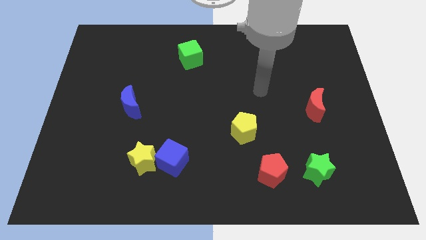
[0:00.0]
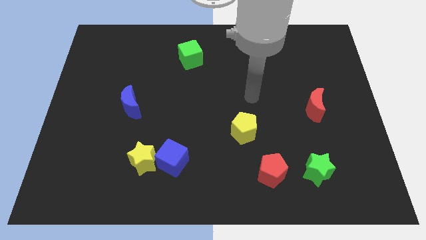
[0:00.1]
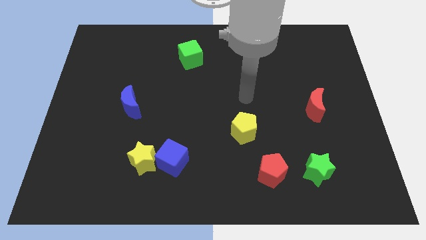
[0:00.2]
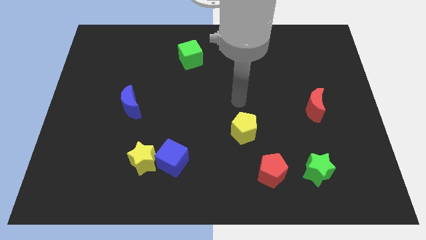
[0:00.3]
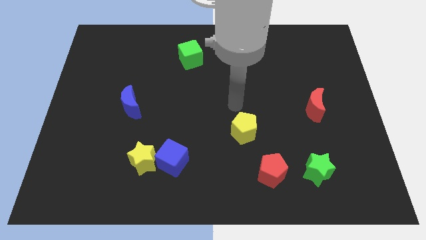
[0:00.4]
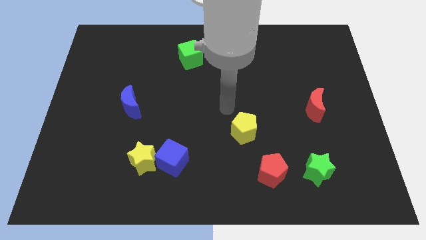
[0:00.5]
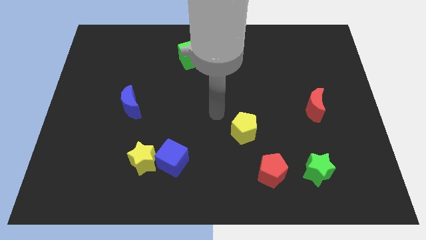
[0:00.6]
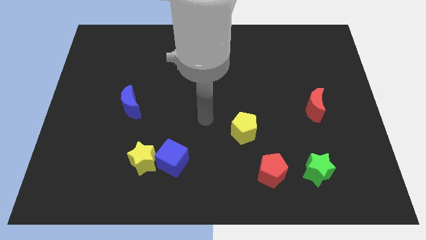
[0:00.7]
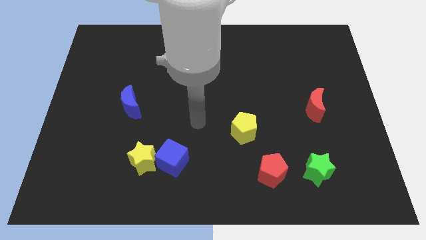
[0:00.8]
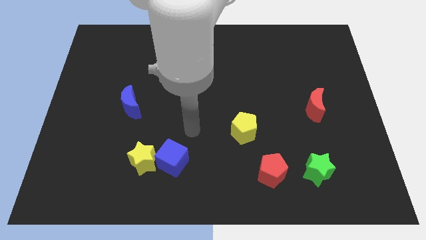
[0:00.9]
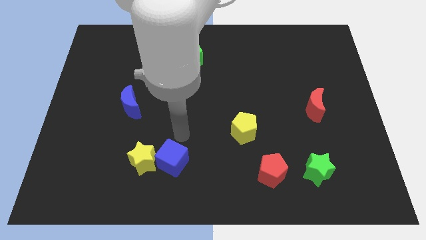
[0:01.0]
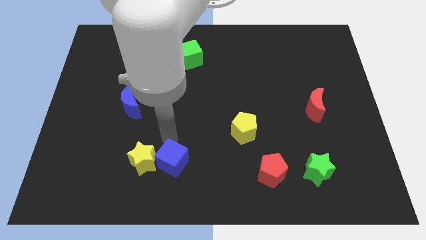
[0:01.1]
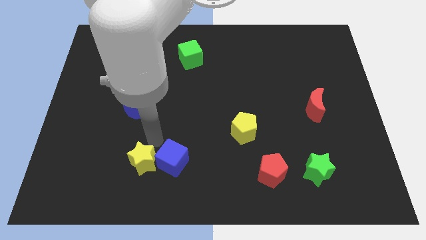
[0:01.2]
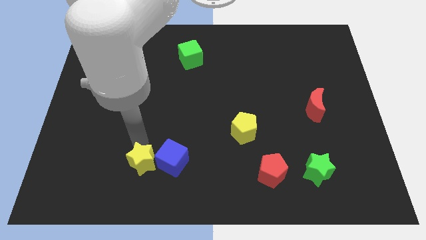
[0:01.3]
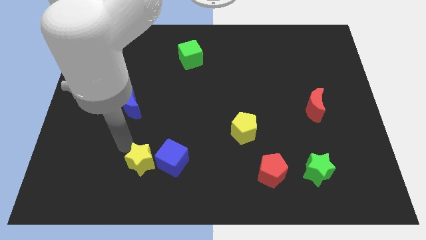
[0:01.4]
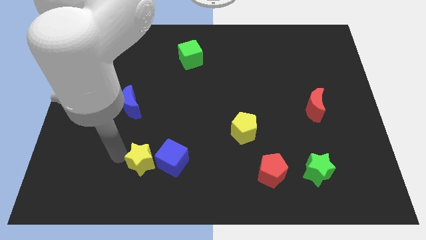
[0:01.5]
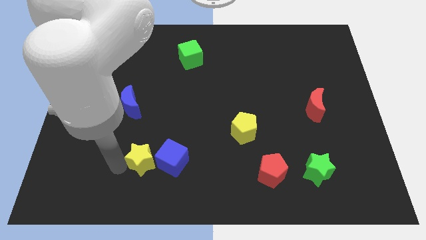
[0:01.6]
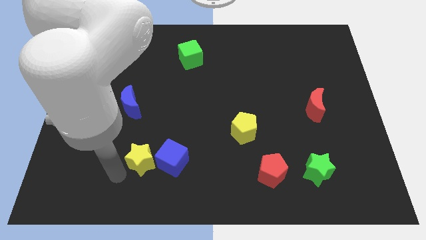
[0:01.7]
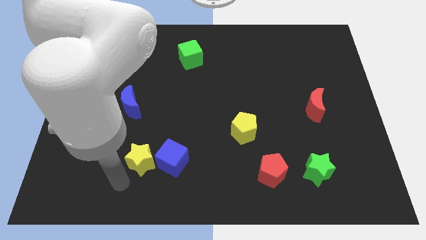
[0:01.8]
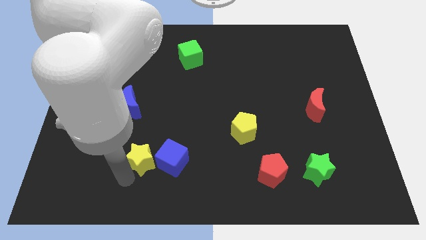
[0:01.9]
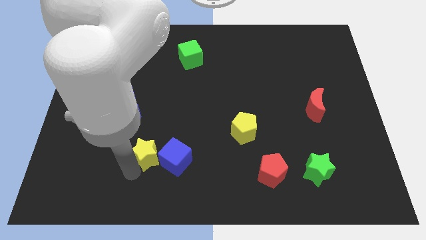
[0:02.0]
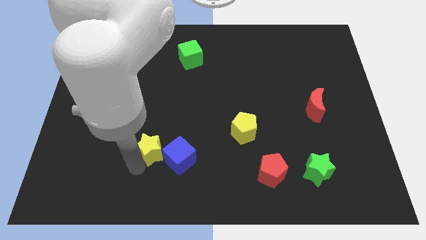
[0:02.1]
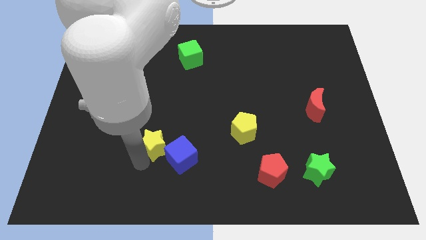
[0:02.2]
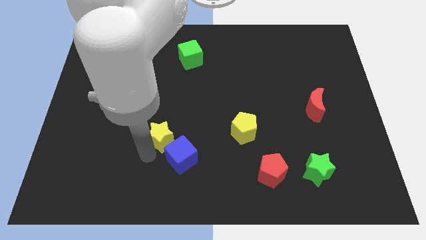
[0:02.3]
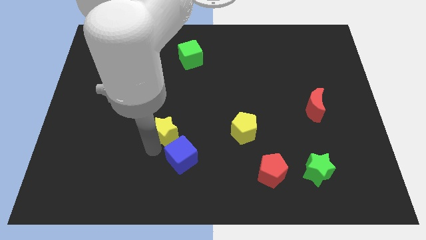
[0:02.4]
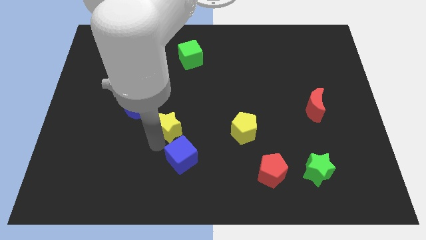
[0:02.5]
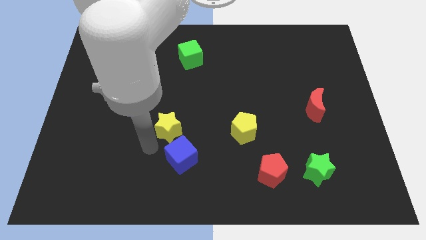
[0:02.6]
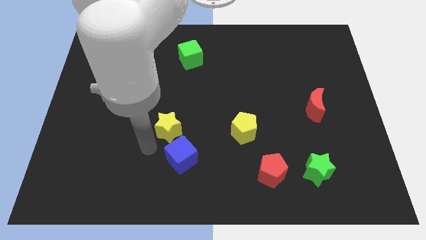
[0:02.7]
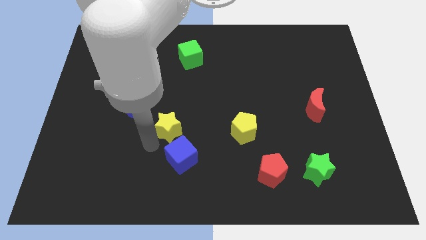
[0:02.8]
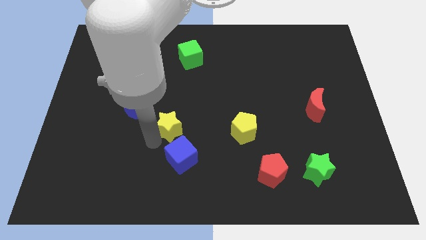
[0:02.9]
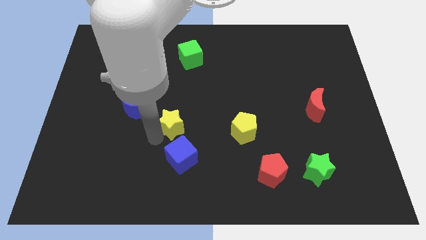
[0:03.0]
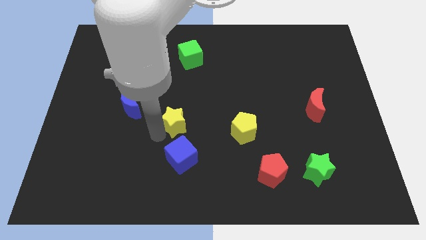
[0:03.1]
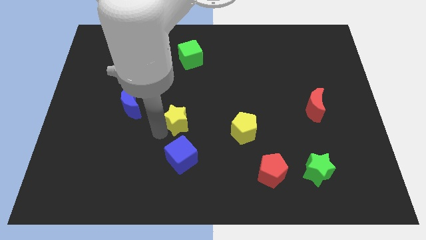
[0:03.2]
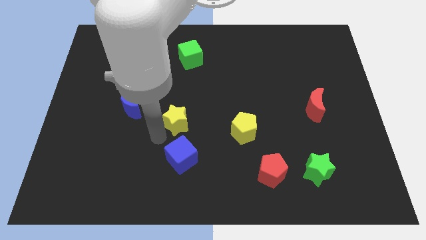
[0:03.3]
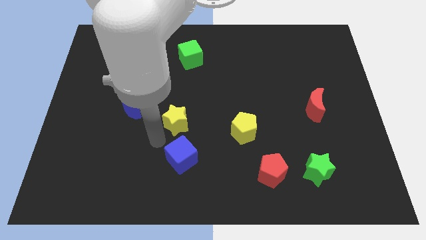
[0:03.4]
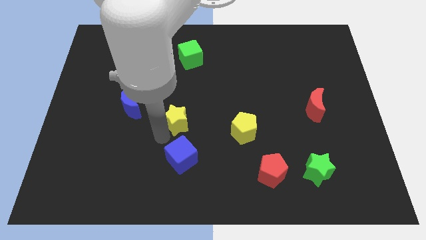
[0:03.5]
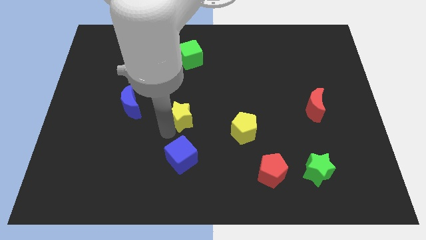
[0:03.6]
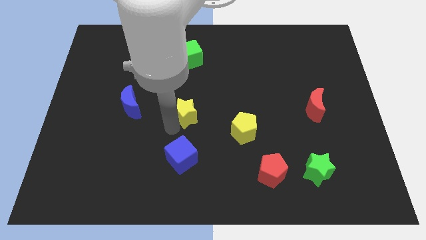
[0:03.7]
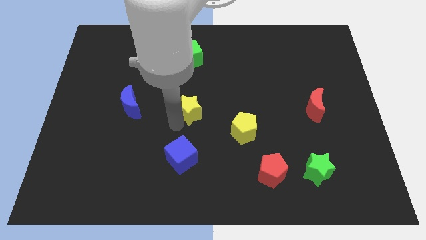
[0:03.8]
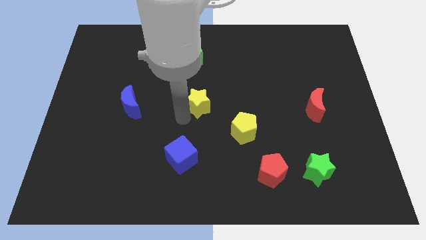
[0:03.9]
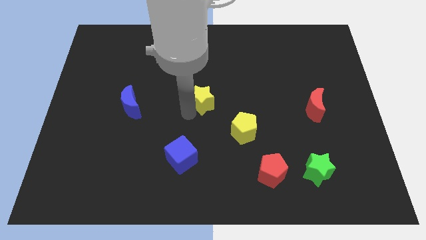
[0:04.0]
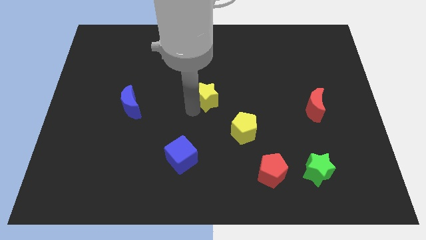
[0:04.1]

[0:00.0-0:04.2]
push the yellow star up and right diagonally

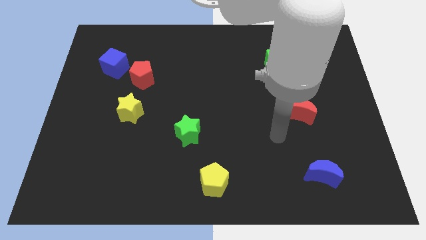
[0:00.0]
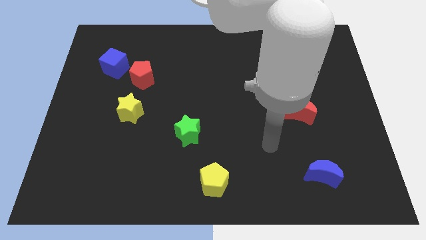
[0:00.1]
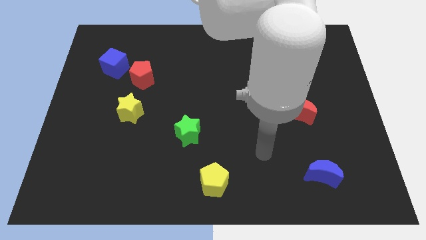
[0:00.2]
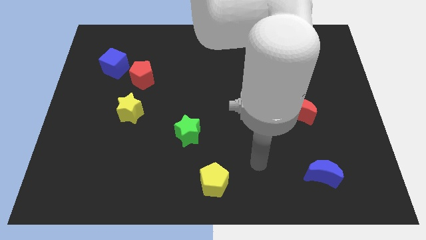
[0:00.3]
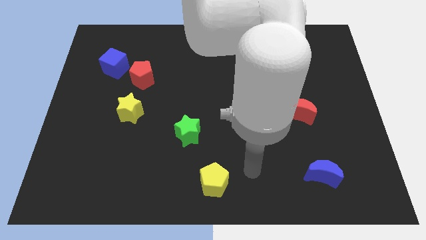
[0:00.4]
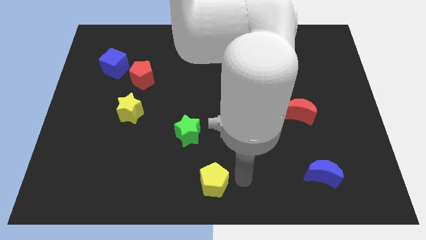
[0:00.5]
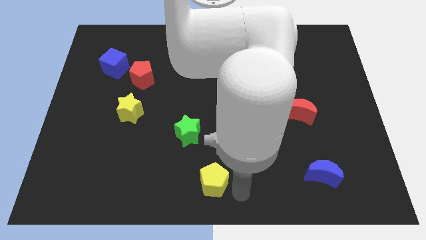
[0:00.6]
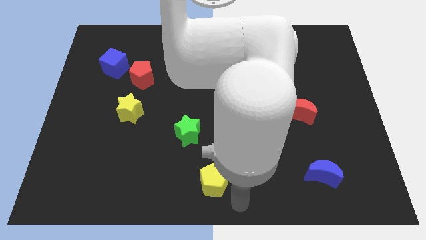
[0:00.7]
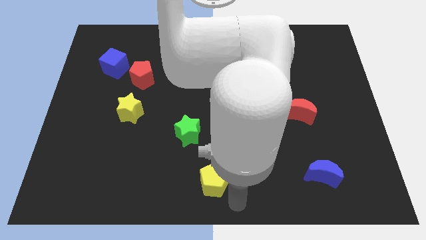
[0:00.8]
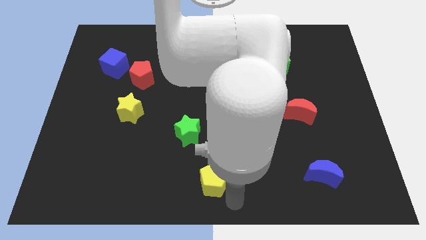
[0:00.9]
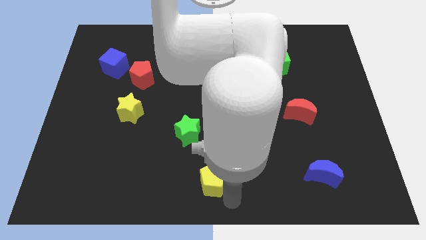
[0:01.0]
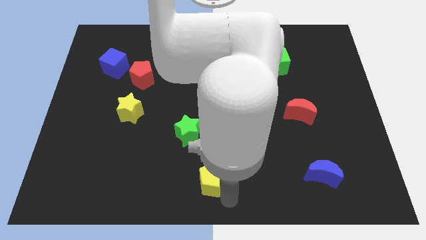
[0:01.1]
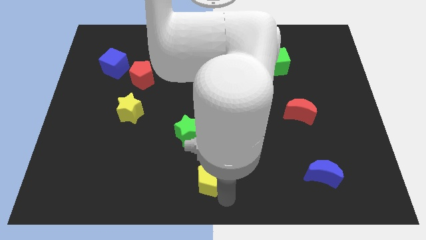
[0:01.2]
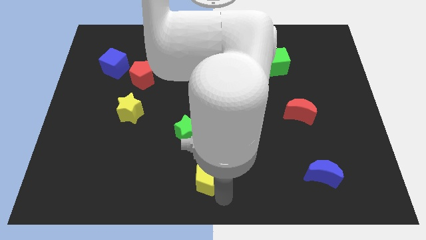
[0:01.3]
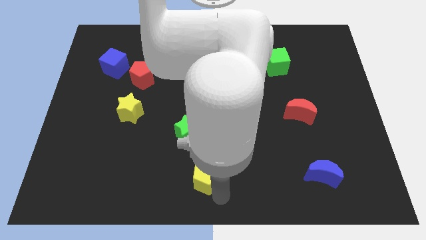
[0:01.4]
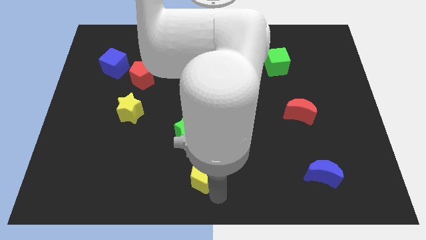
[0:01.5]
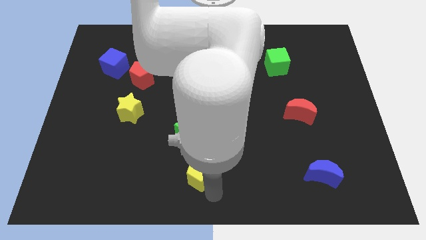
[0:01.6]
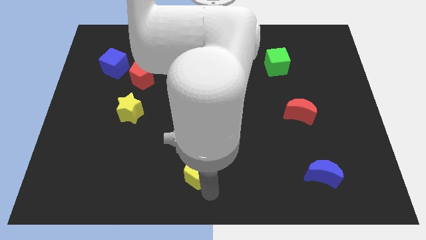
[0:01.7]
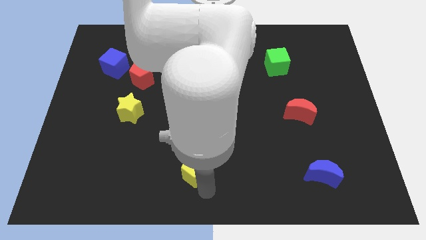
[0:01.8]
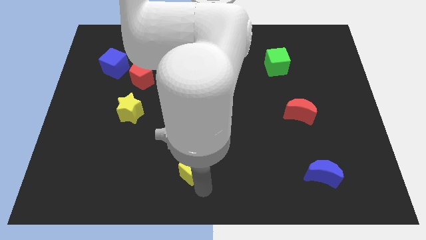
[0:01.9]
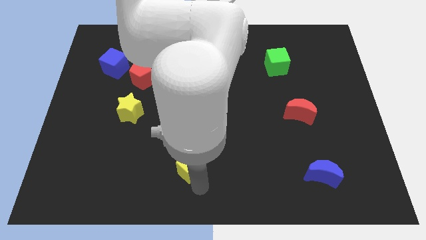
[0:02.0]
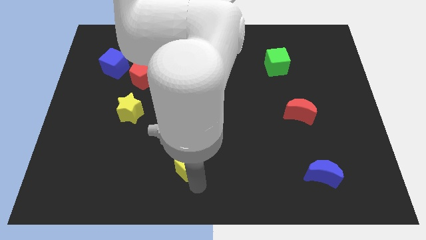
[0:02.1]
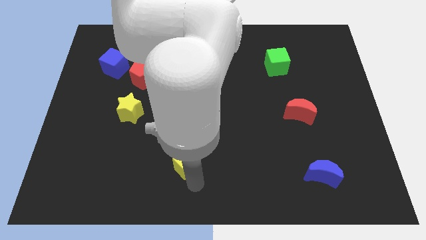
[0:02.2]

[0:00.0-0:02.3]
slightly slide the yellow pentagon up and to the left diagonally

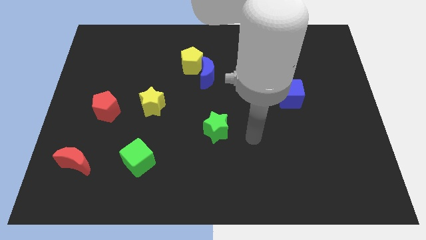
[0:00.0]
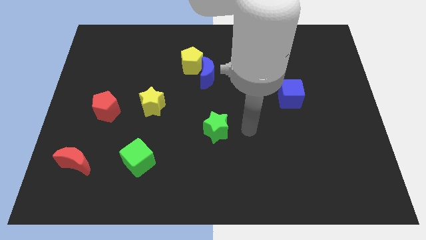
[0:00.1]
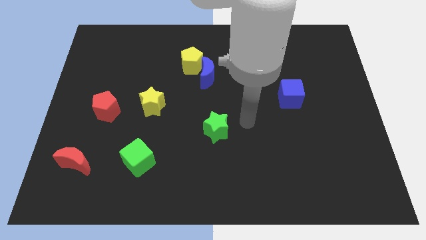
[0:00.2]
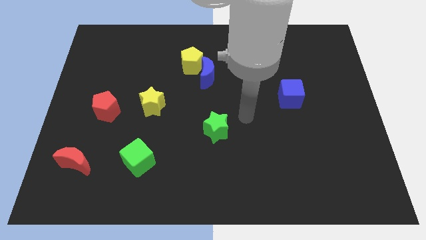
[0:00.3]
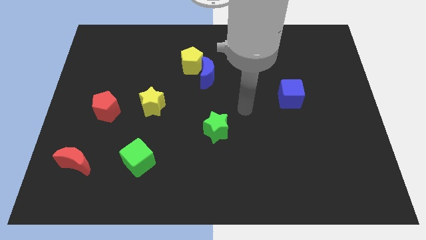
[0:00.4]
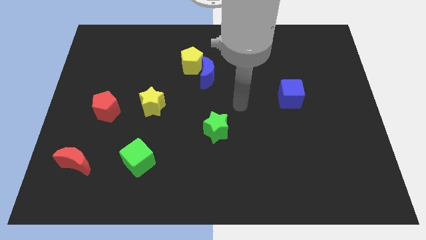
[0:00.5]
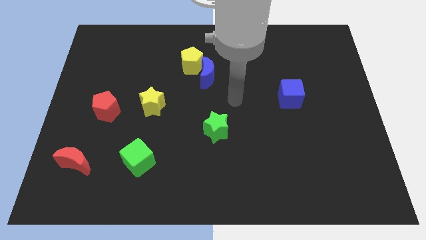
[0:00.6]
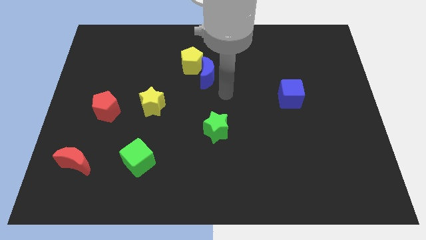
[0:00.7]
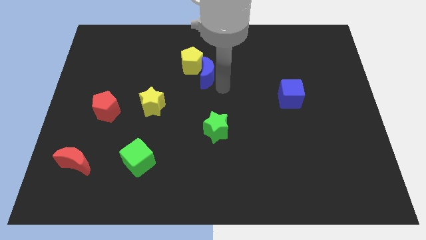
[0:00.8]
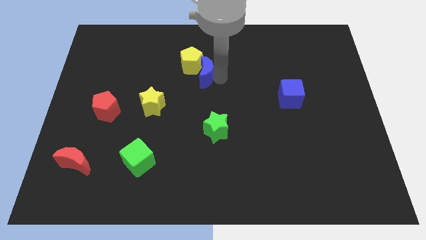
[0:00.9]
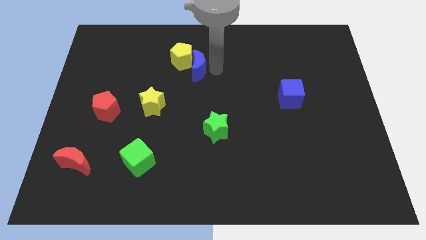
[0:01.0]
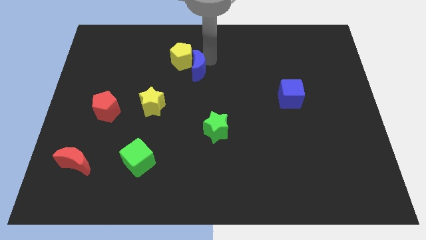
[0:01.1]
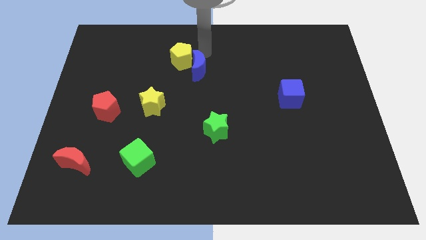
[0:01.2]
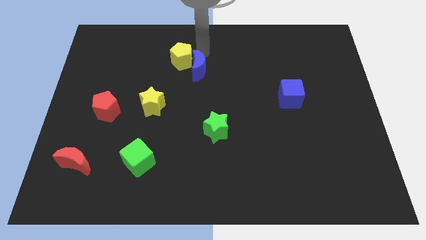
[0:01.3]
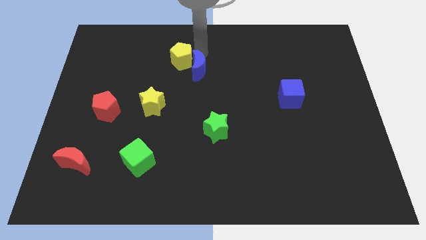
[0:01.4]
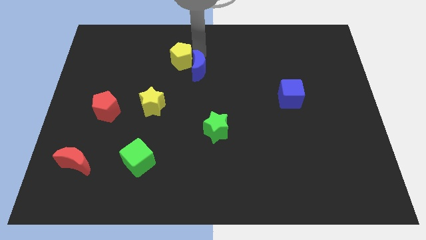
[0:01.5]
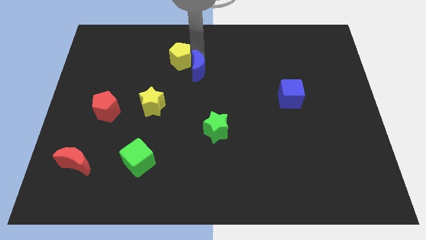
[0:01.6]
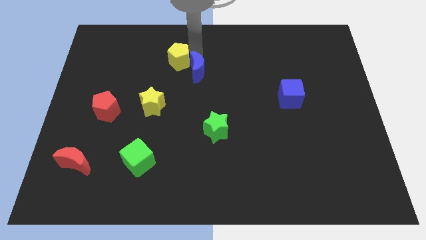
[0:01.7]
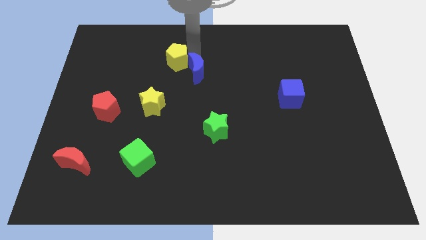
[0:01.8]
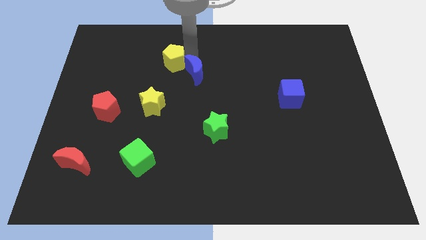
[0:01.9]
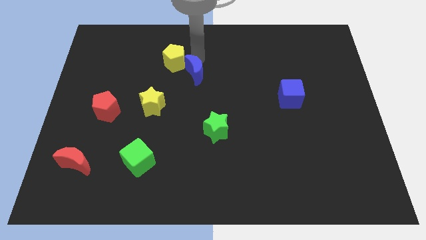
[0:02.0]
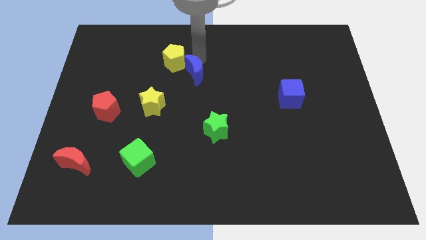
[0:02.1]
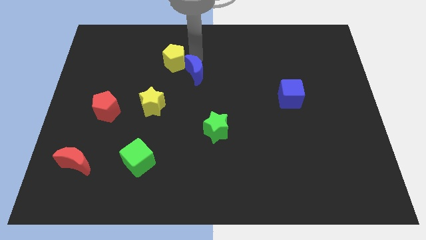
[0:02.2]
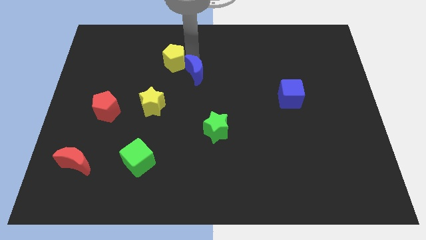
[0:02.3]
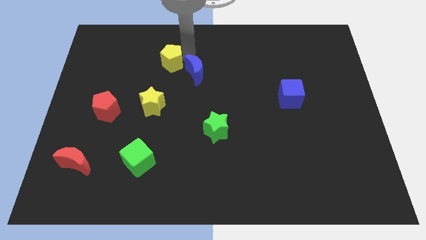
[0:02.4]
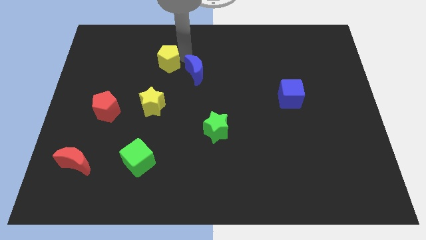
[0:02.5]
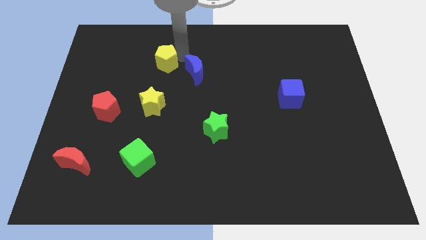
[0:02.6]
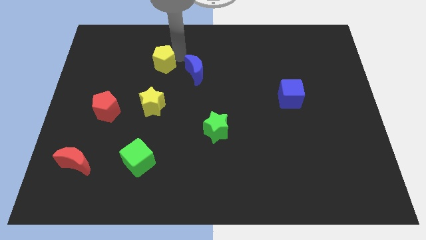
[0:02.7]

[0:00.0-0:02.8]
move the yellow pentagon a little bit left
